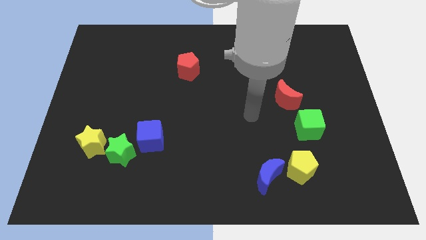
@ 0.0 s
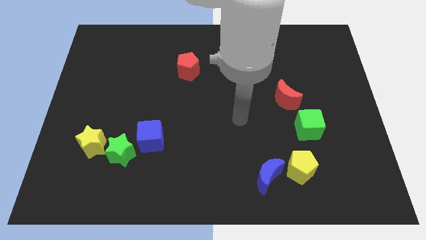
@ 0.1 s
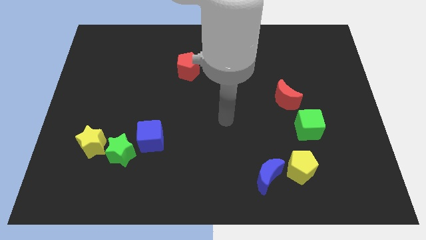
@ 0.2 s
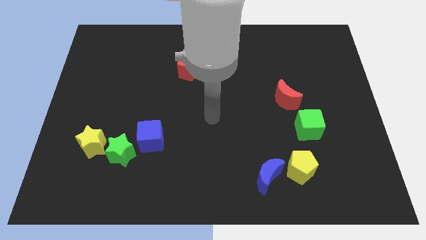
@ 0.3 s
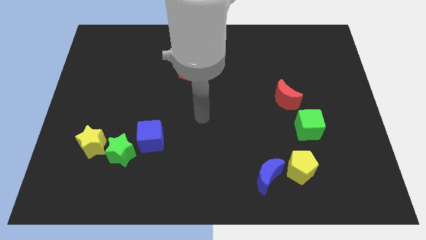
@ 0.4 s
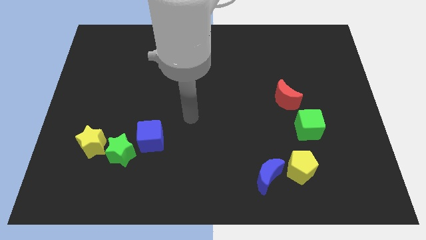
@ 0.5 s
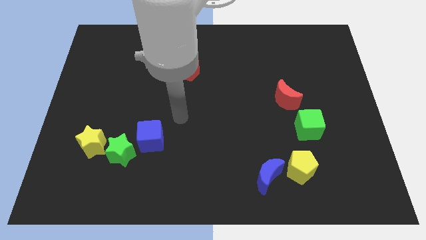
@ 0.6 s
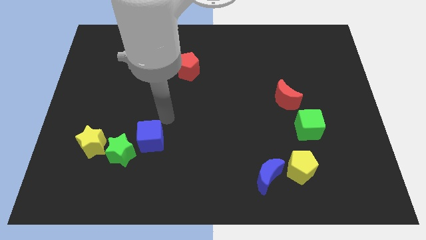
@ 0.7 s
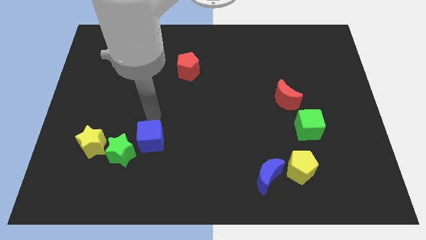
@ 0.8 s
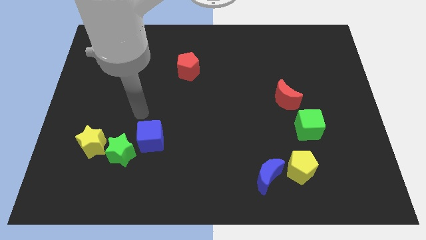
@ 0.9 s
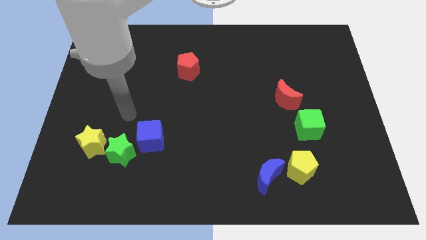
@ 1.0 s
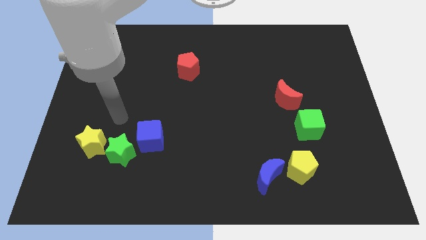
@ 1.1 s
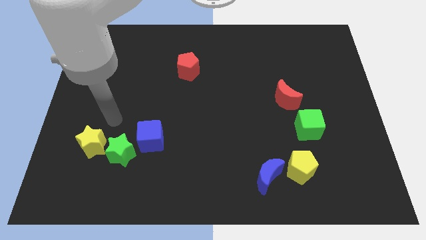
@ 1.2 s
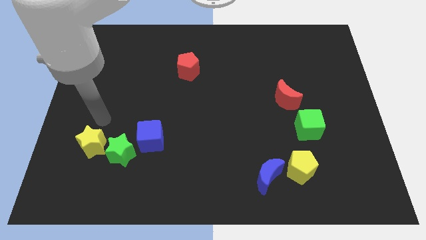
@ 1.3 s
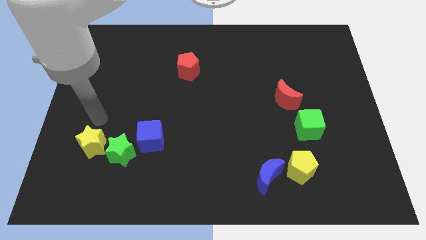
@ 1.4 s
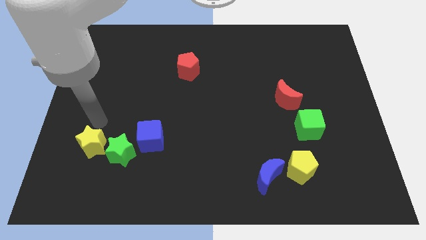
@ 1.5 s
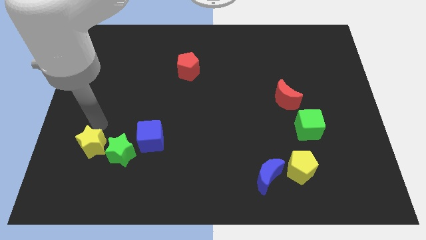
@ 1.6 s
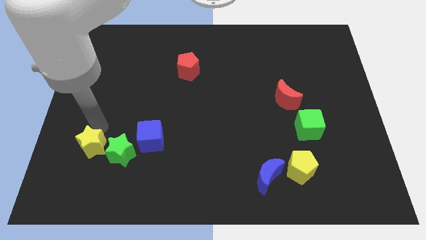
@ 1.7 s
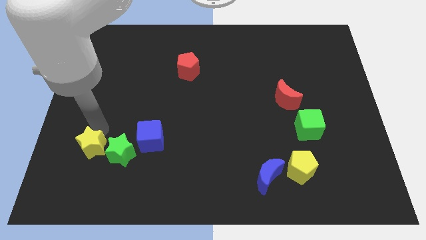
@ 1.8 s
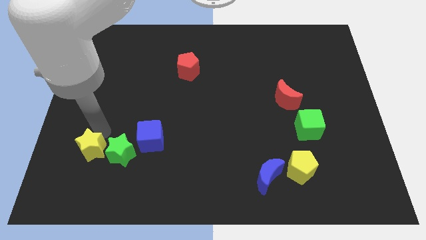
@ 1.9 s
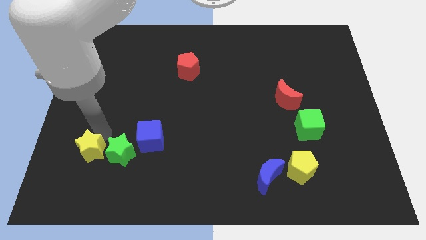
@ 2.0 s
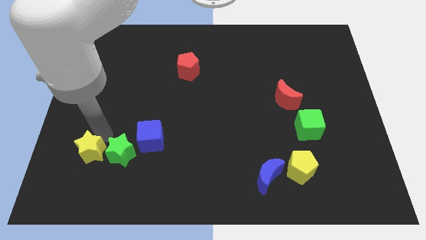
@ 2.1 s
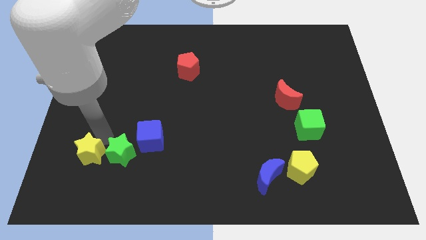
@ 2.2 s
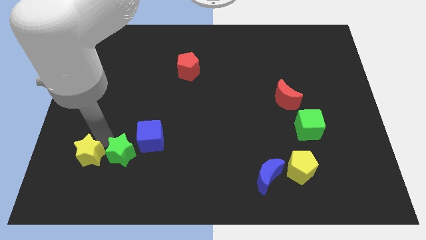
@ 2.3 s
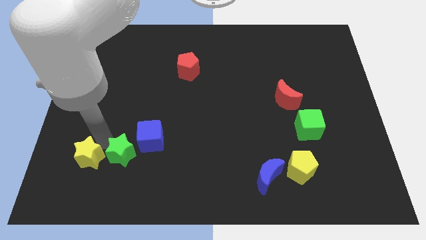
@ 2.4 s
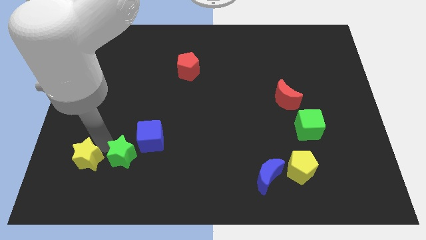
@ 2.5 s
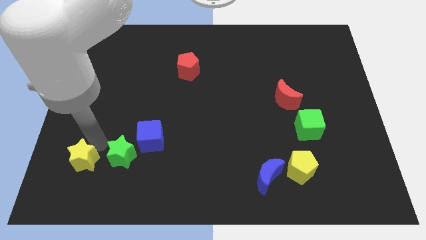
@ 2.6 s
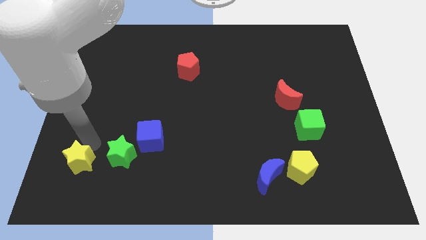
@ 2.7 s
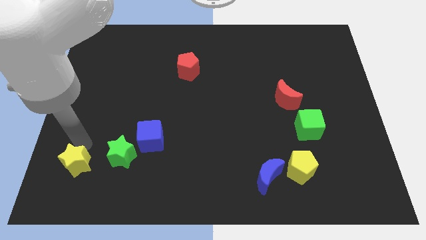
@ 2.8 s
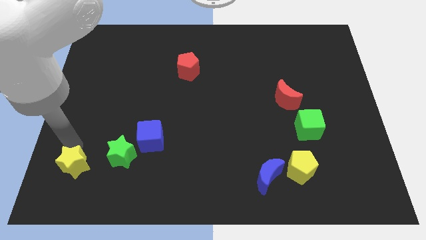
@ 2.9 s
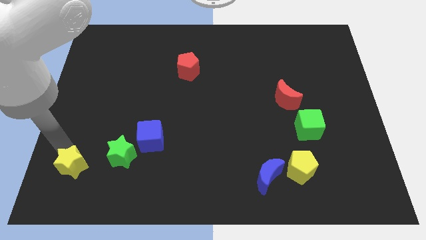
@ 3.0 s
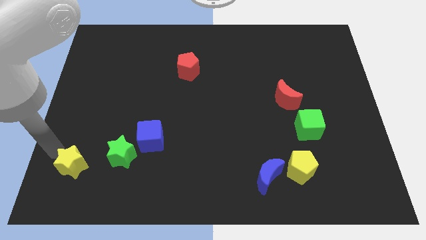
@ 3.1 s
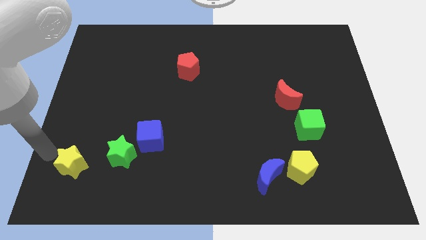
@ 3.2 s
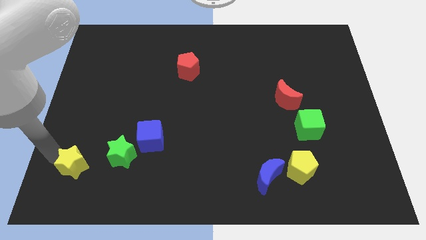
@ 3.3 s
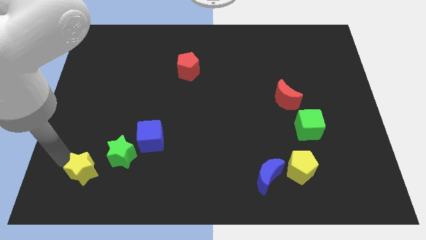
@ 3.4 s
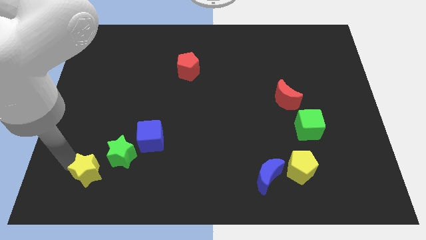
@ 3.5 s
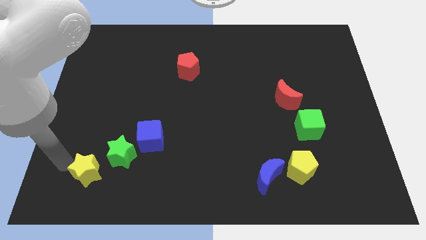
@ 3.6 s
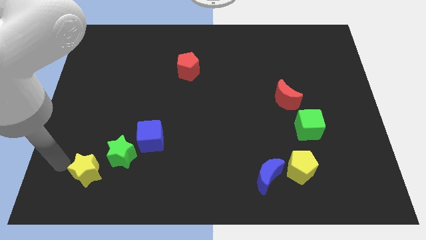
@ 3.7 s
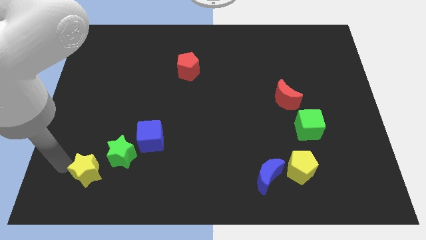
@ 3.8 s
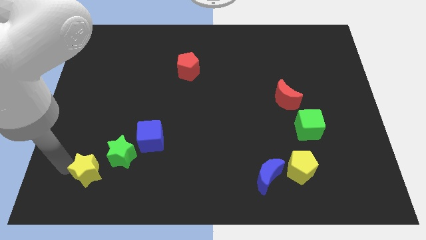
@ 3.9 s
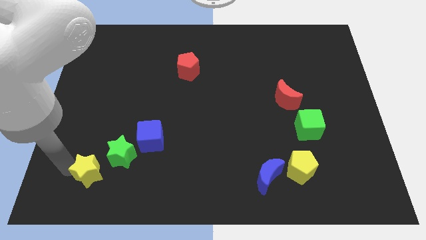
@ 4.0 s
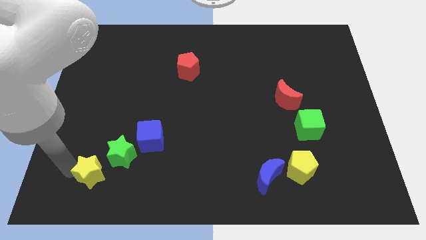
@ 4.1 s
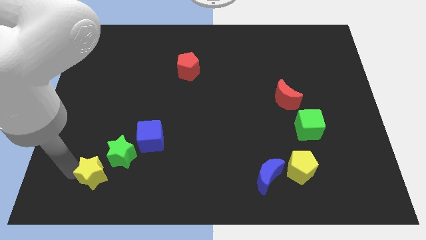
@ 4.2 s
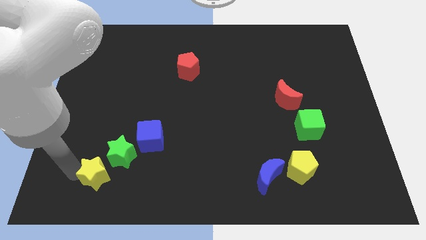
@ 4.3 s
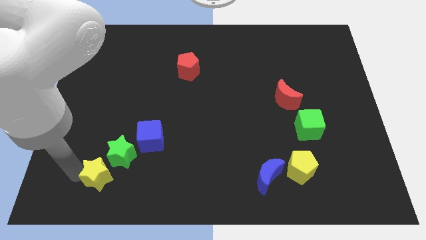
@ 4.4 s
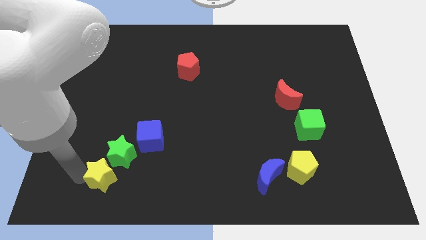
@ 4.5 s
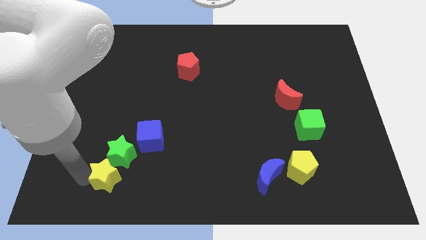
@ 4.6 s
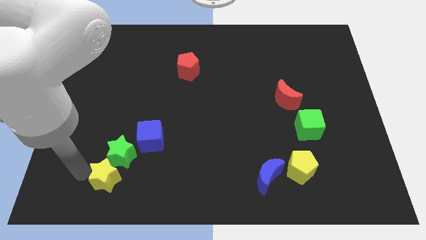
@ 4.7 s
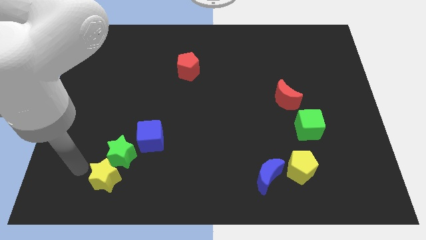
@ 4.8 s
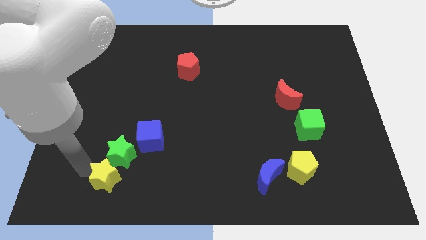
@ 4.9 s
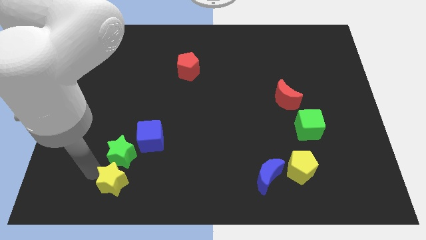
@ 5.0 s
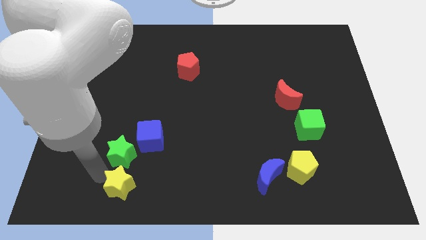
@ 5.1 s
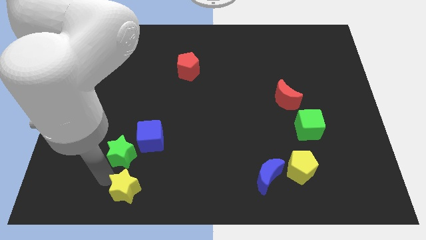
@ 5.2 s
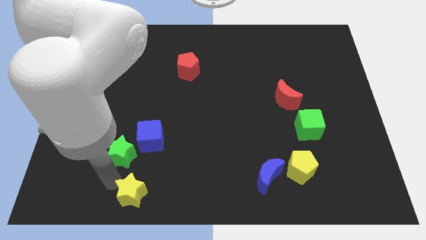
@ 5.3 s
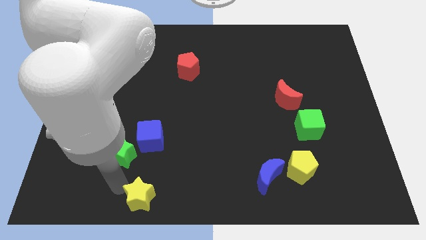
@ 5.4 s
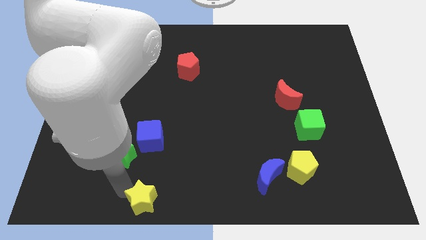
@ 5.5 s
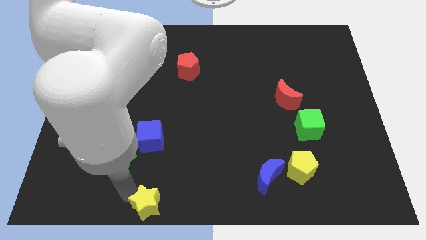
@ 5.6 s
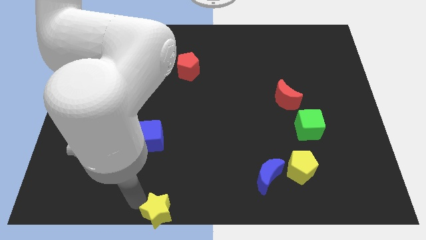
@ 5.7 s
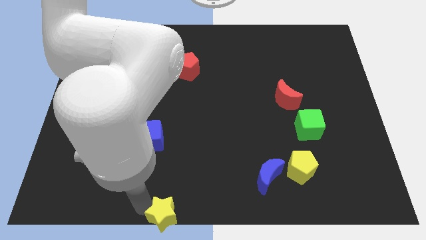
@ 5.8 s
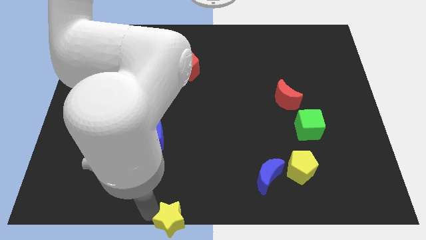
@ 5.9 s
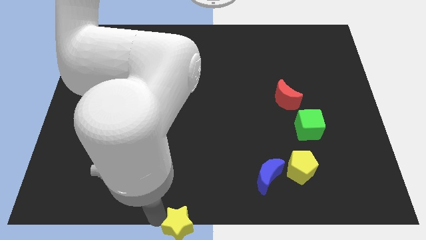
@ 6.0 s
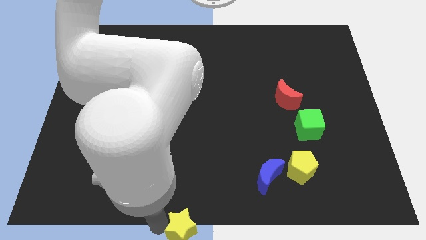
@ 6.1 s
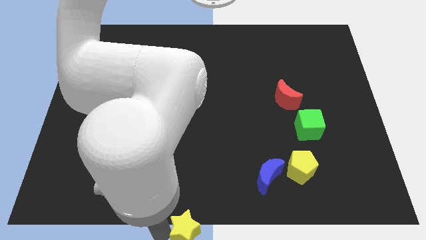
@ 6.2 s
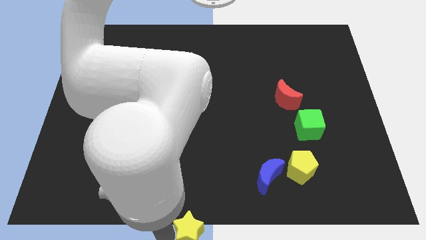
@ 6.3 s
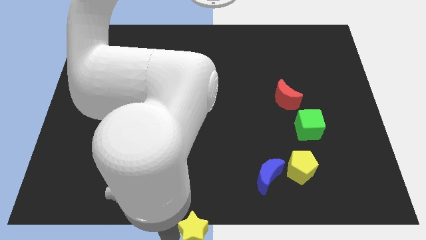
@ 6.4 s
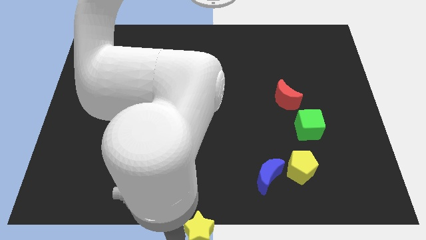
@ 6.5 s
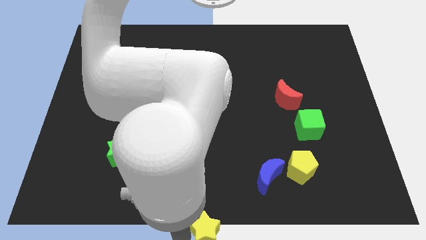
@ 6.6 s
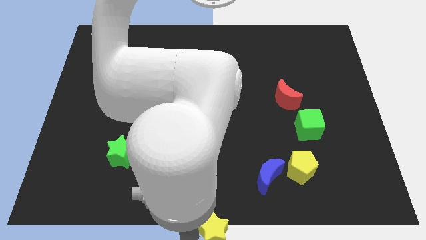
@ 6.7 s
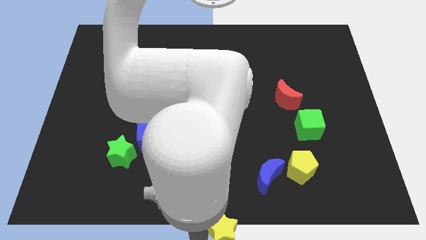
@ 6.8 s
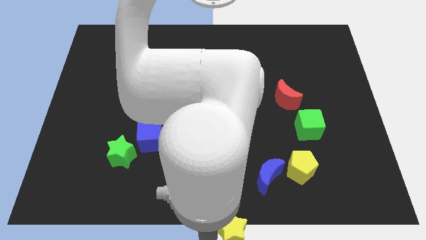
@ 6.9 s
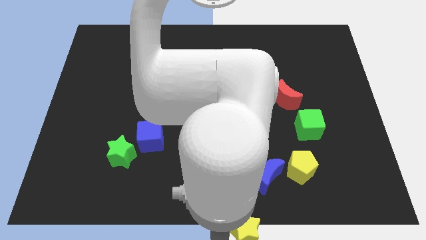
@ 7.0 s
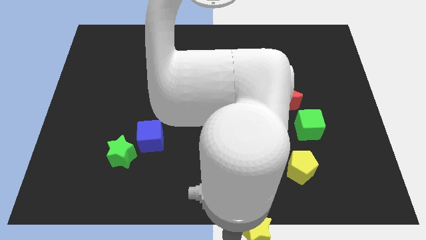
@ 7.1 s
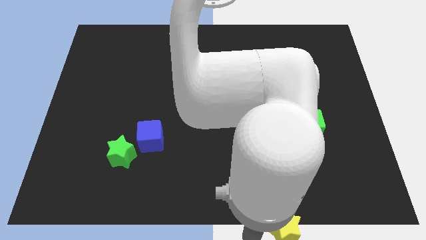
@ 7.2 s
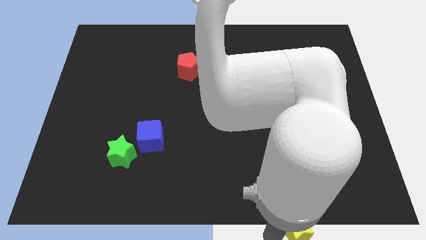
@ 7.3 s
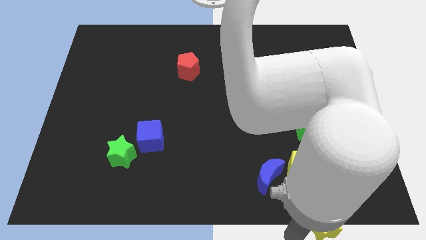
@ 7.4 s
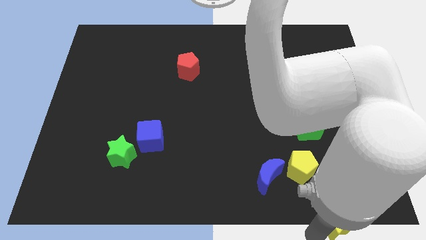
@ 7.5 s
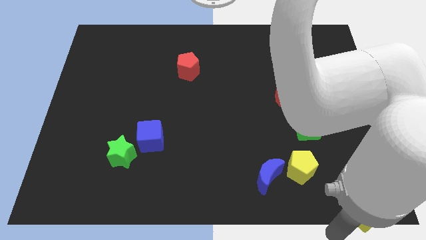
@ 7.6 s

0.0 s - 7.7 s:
slide the yellow star to the bottom right
